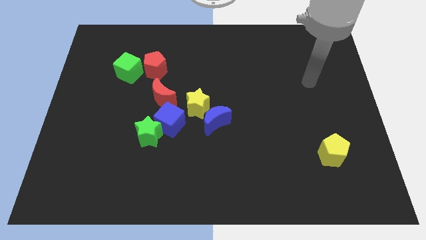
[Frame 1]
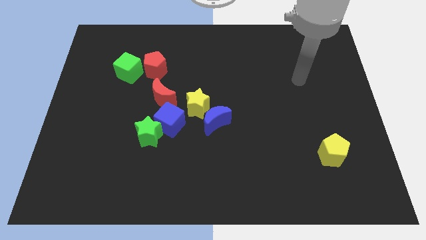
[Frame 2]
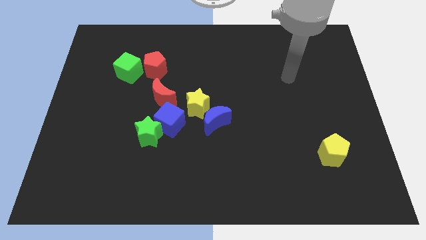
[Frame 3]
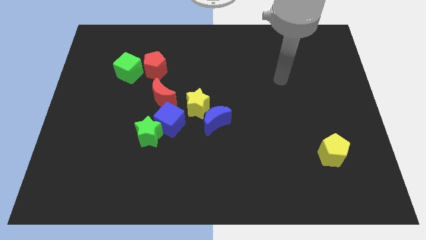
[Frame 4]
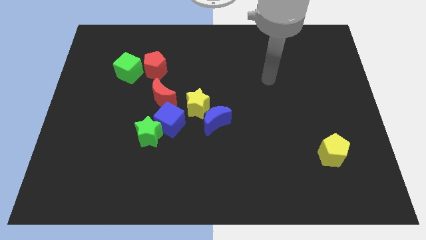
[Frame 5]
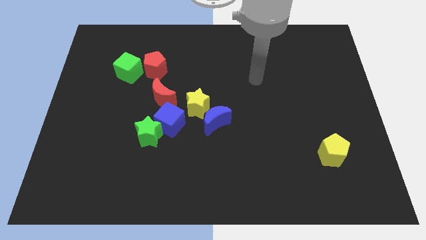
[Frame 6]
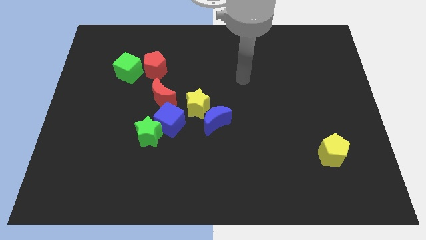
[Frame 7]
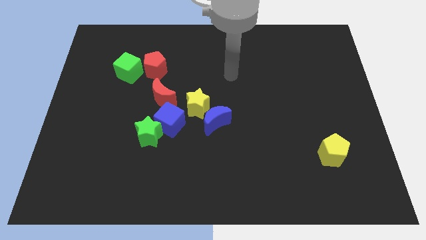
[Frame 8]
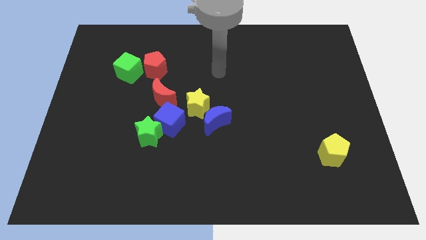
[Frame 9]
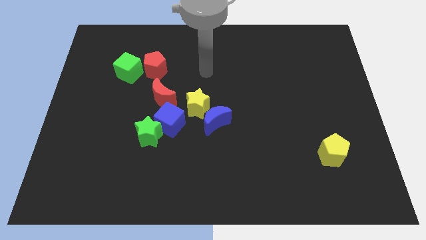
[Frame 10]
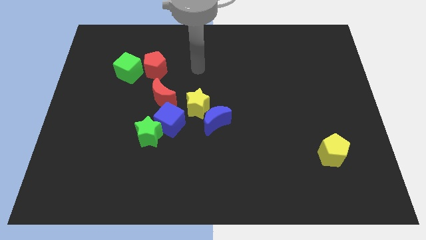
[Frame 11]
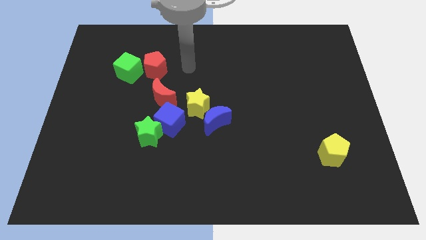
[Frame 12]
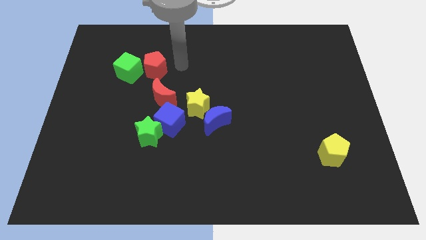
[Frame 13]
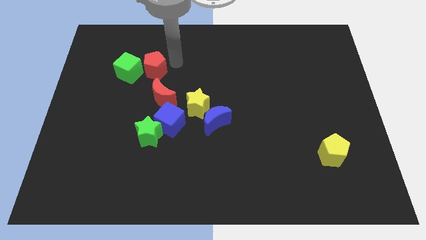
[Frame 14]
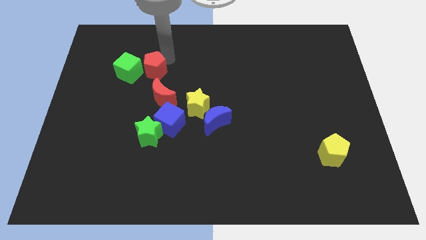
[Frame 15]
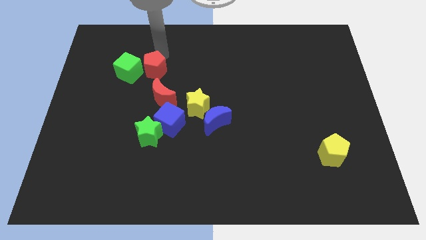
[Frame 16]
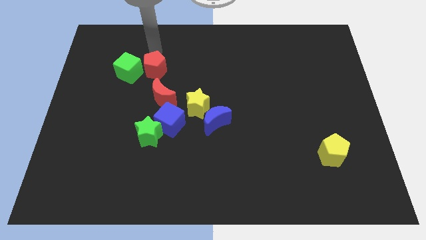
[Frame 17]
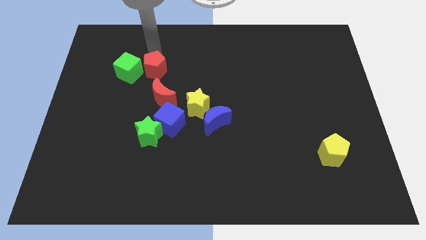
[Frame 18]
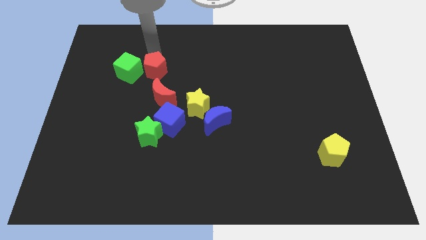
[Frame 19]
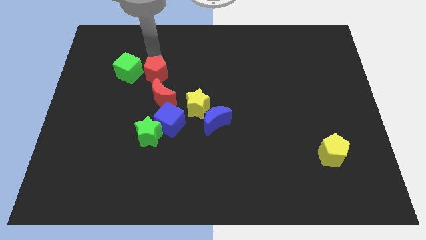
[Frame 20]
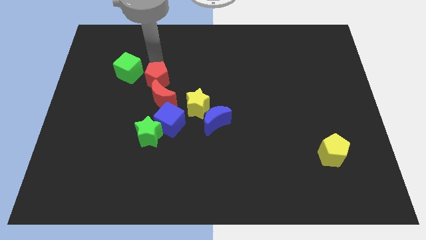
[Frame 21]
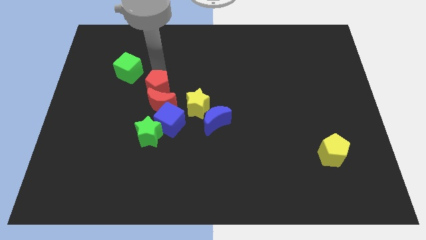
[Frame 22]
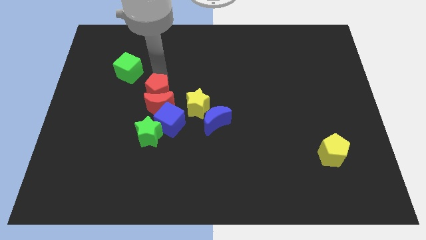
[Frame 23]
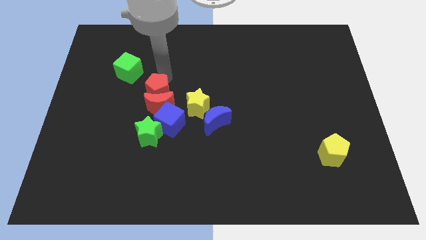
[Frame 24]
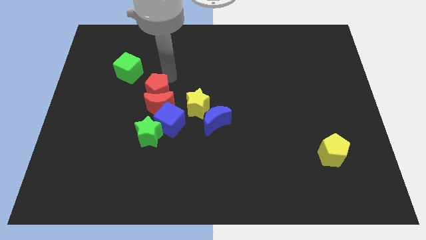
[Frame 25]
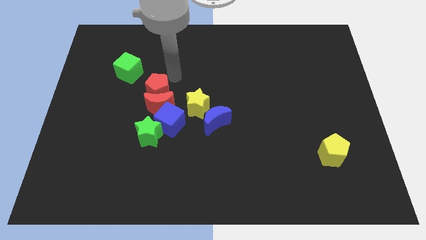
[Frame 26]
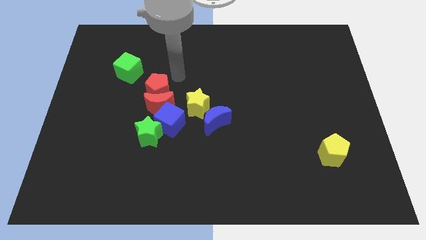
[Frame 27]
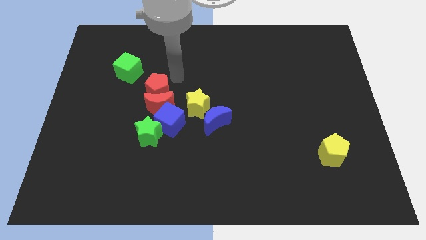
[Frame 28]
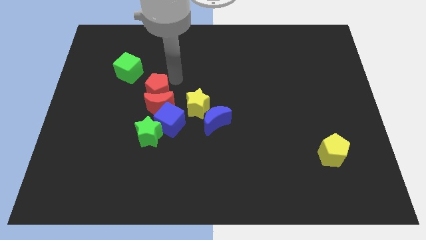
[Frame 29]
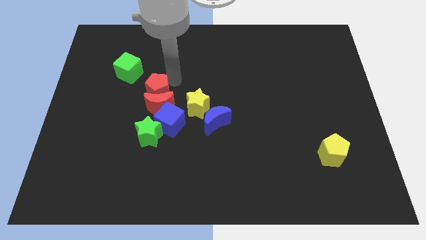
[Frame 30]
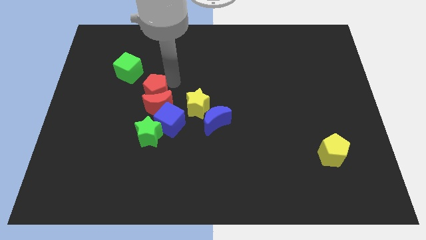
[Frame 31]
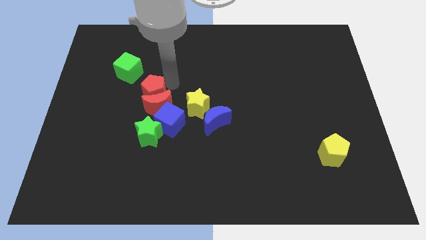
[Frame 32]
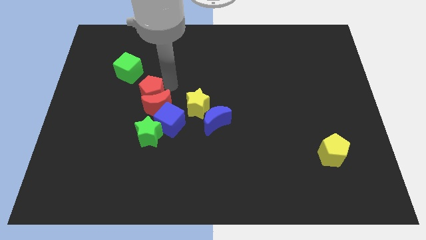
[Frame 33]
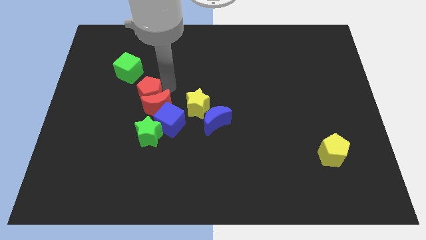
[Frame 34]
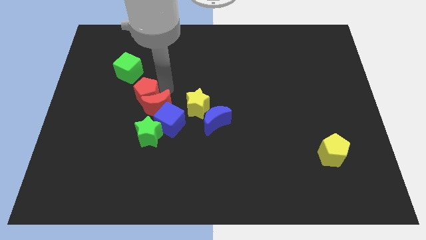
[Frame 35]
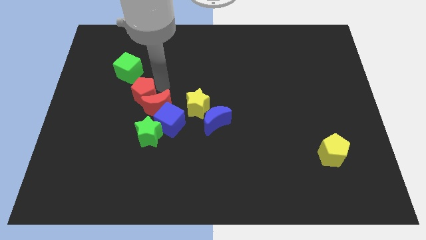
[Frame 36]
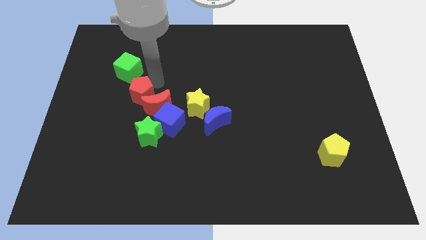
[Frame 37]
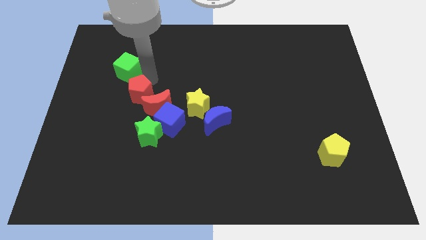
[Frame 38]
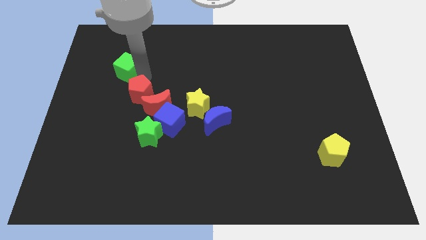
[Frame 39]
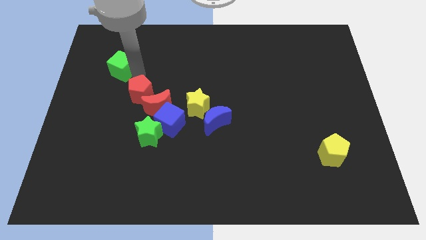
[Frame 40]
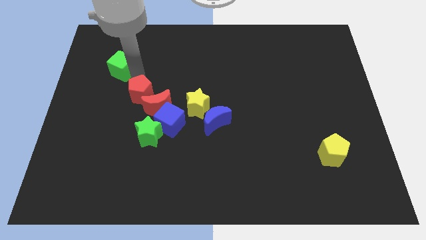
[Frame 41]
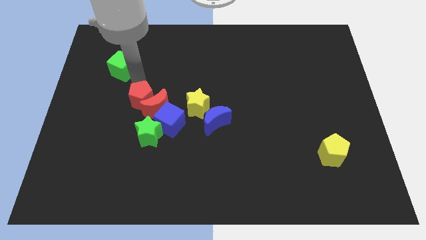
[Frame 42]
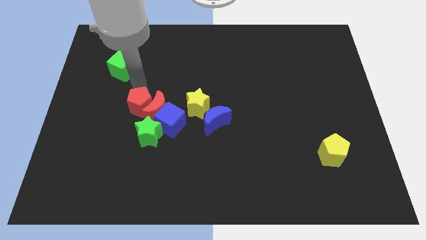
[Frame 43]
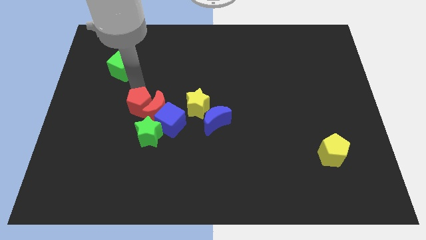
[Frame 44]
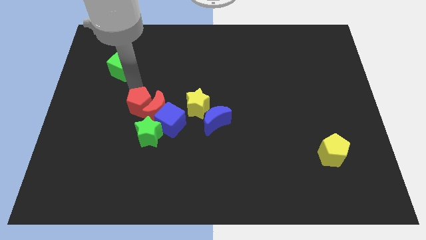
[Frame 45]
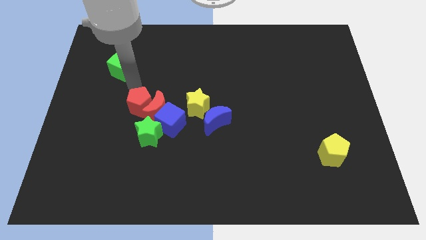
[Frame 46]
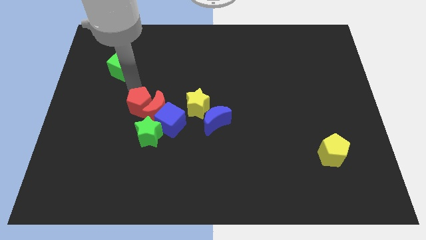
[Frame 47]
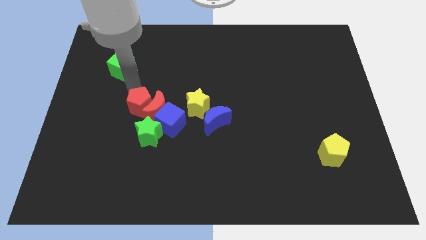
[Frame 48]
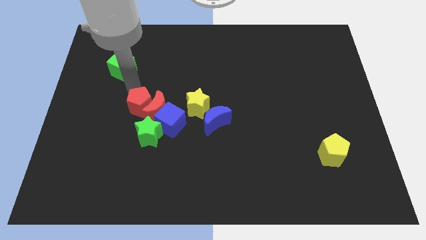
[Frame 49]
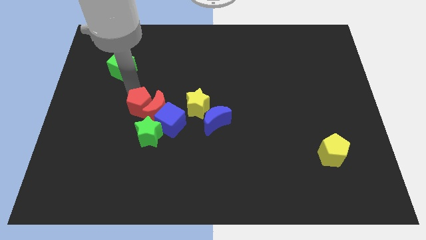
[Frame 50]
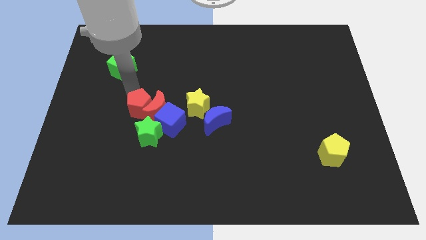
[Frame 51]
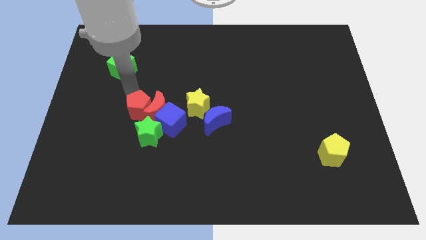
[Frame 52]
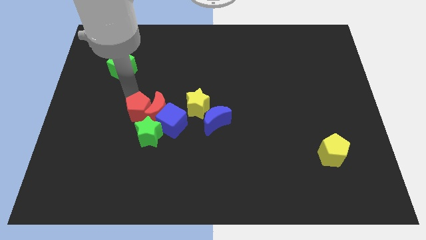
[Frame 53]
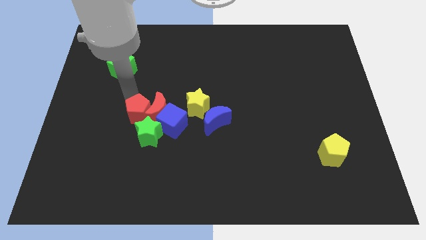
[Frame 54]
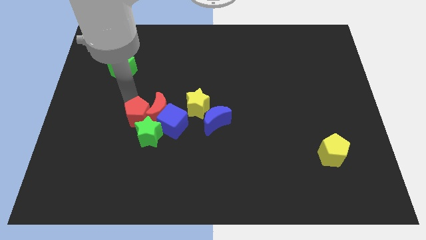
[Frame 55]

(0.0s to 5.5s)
put the red pentagon close to the green star
